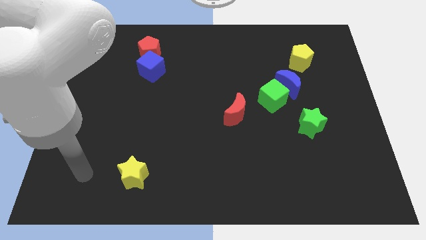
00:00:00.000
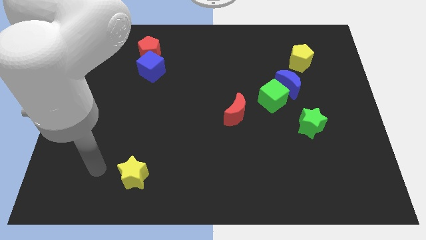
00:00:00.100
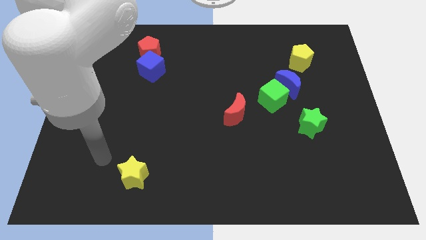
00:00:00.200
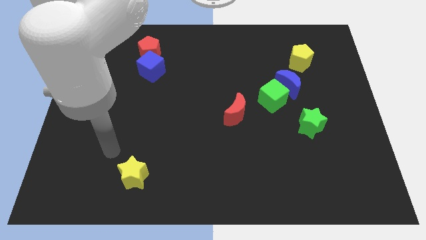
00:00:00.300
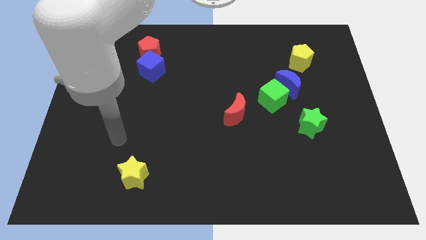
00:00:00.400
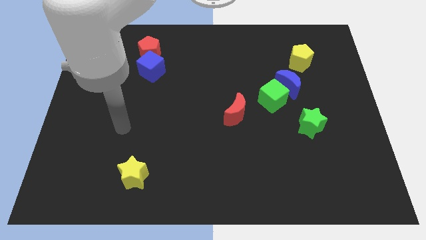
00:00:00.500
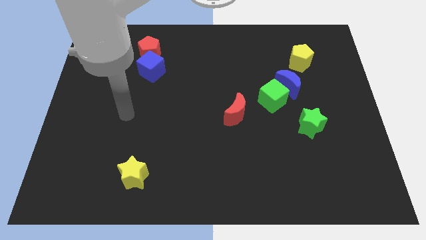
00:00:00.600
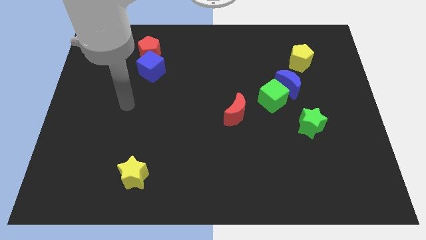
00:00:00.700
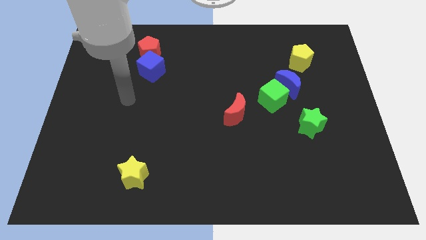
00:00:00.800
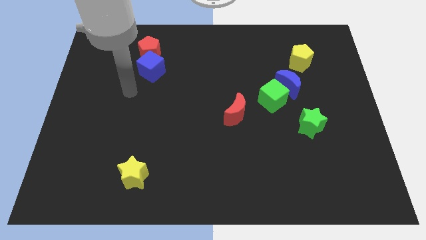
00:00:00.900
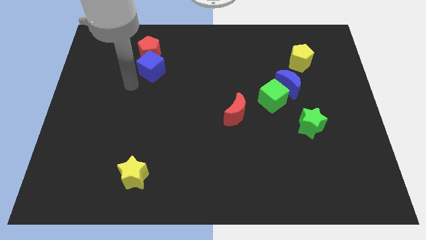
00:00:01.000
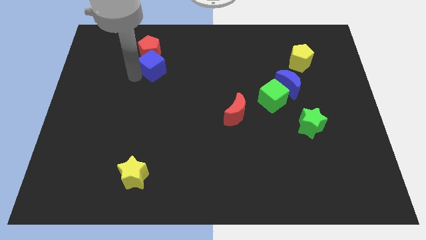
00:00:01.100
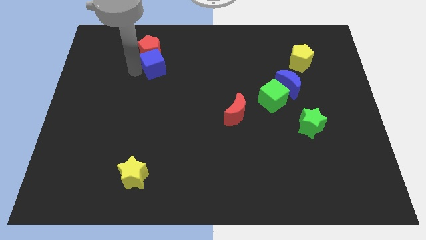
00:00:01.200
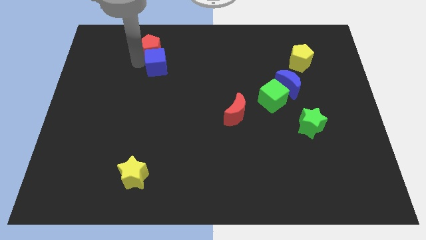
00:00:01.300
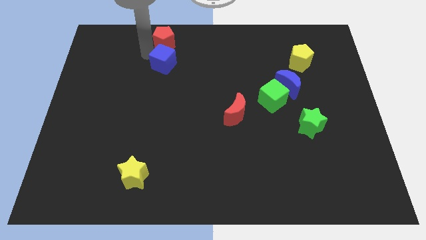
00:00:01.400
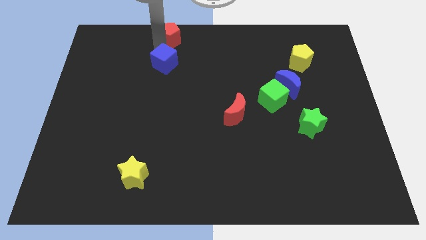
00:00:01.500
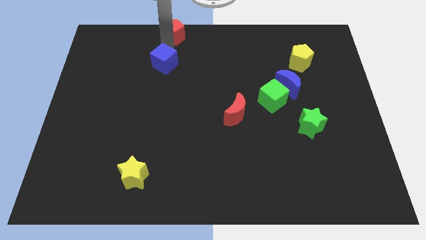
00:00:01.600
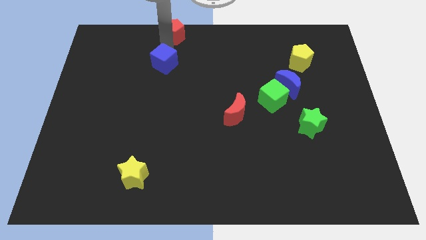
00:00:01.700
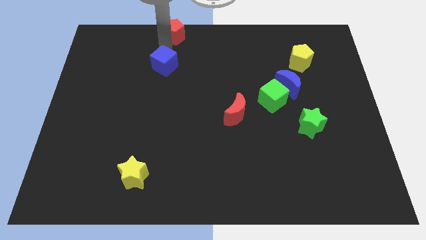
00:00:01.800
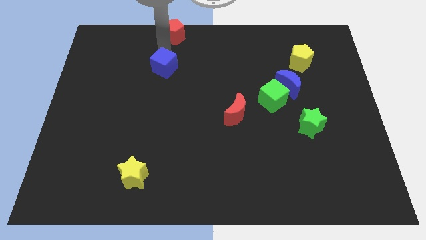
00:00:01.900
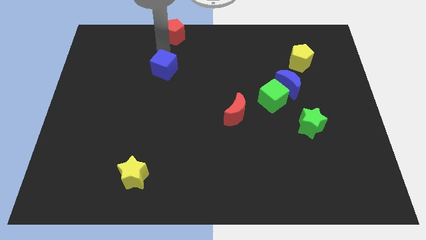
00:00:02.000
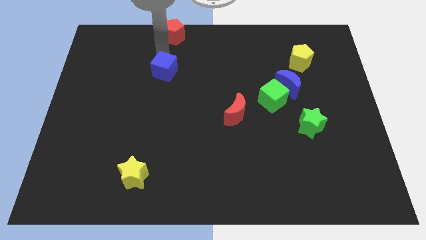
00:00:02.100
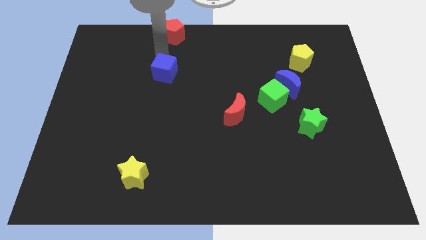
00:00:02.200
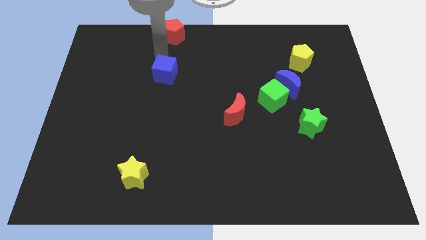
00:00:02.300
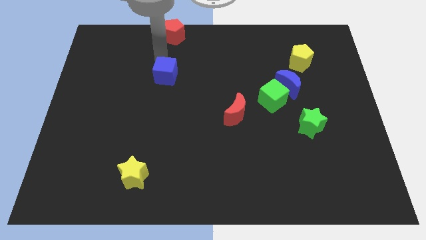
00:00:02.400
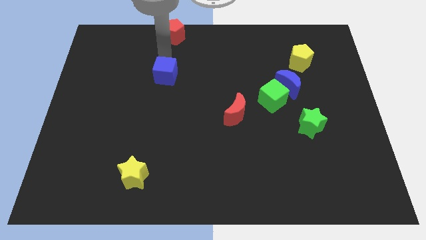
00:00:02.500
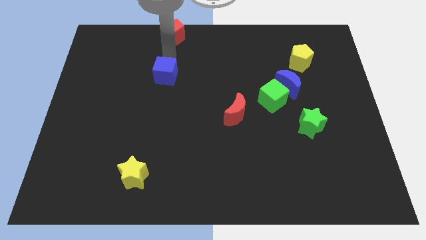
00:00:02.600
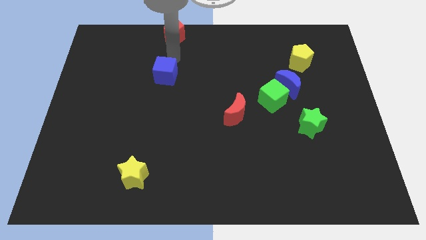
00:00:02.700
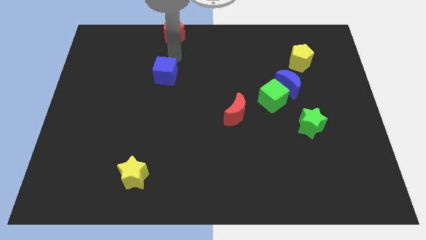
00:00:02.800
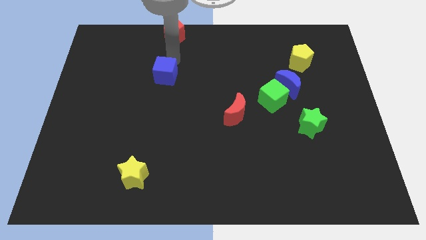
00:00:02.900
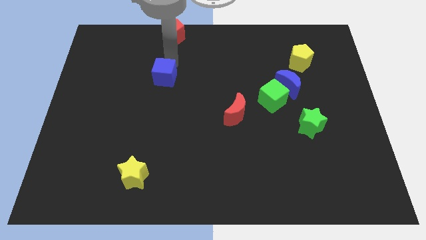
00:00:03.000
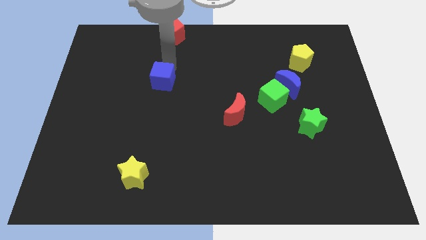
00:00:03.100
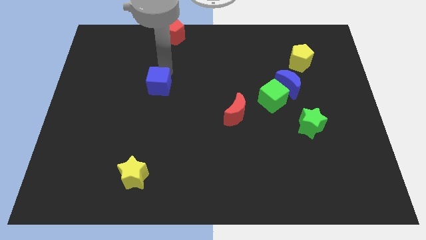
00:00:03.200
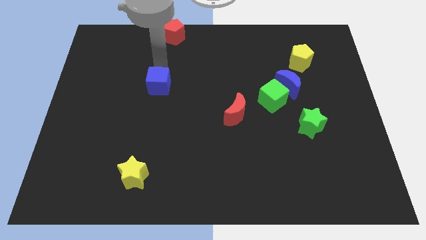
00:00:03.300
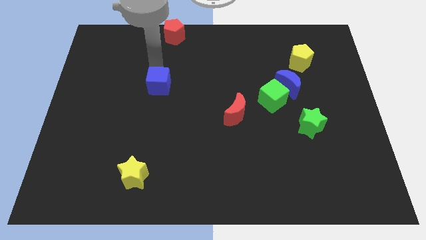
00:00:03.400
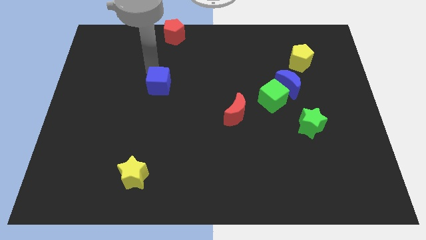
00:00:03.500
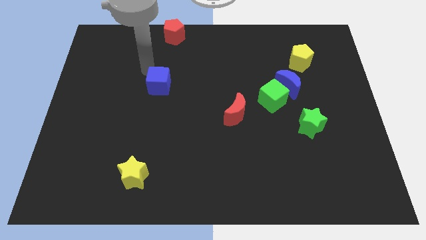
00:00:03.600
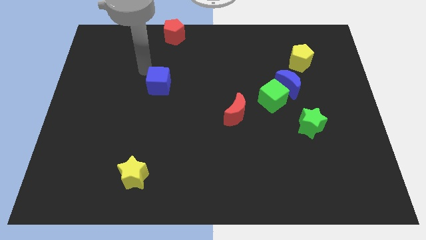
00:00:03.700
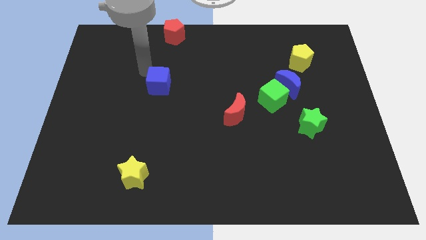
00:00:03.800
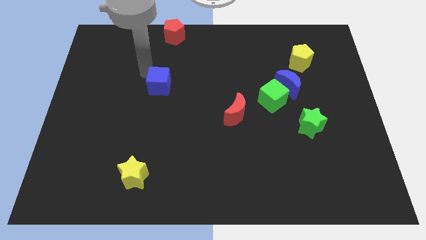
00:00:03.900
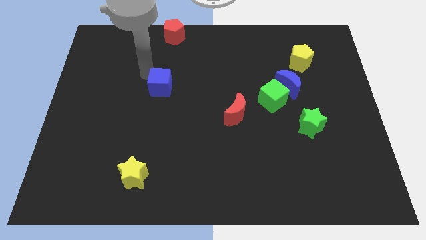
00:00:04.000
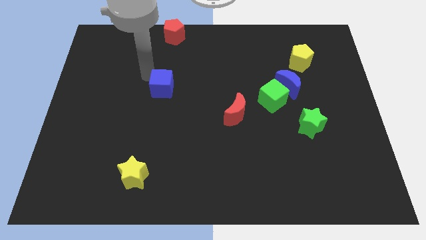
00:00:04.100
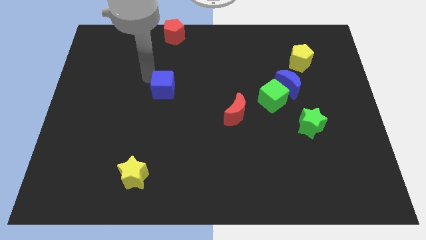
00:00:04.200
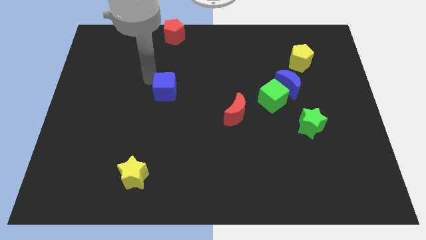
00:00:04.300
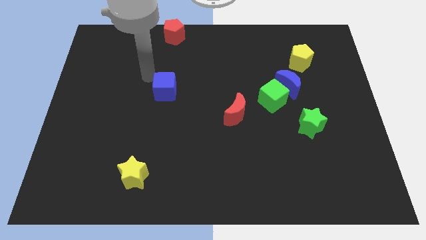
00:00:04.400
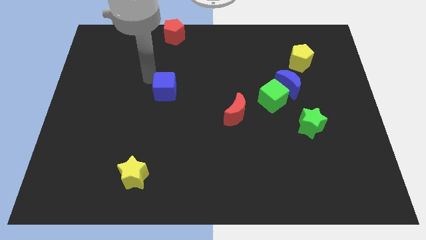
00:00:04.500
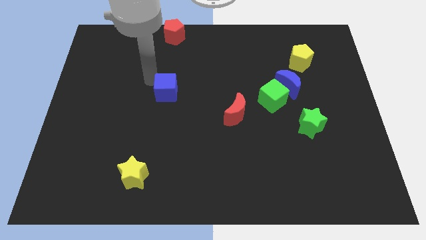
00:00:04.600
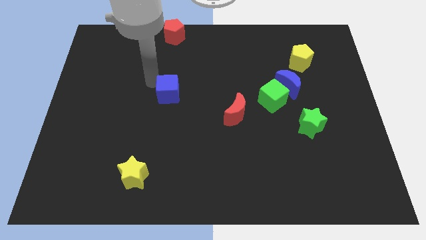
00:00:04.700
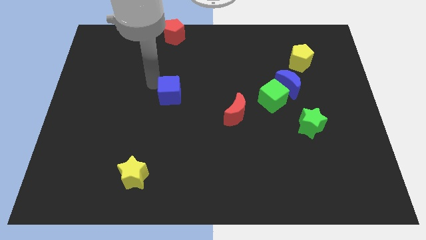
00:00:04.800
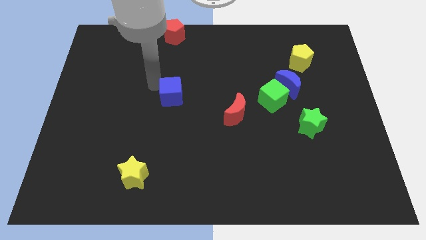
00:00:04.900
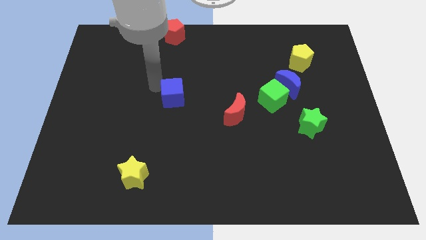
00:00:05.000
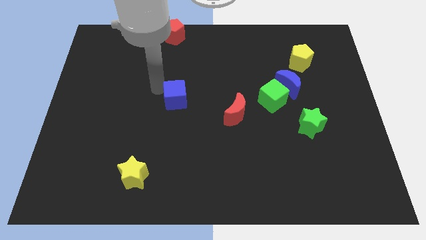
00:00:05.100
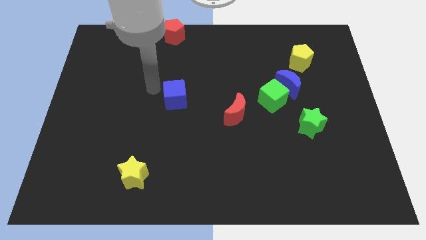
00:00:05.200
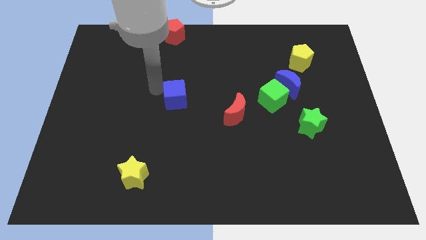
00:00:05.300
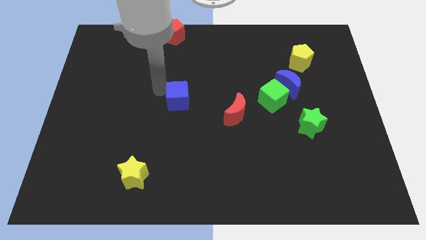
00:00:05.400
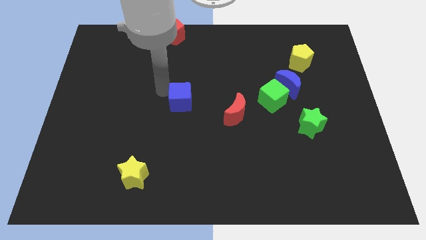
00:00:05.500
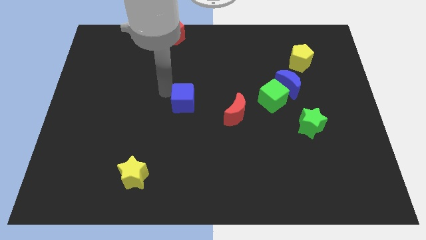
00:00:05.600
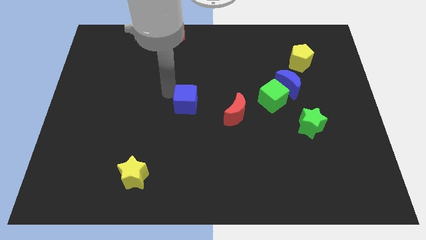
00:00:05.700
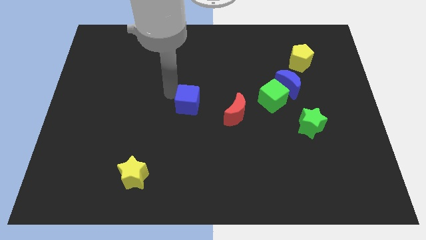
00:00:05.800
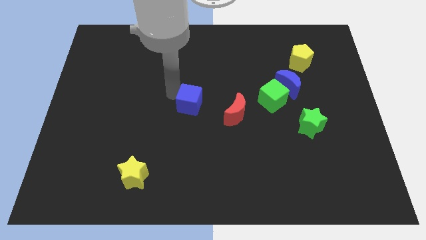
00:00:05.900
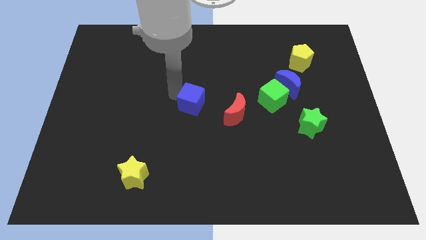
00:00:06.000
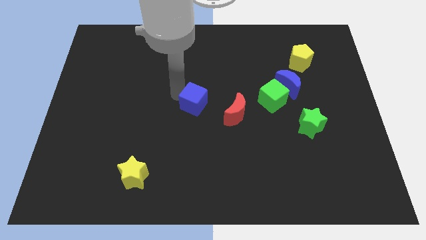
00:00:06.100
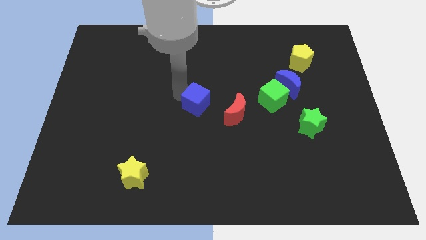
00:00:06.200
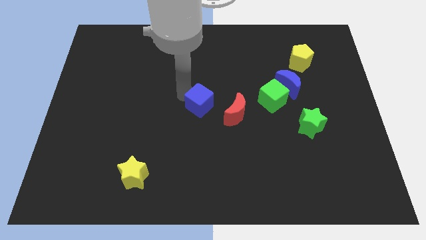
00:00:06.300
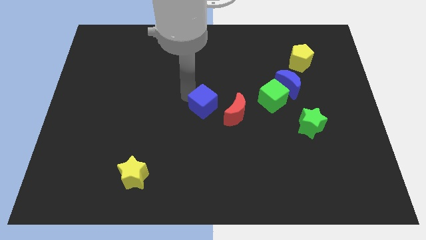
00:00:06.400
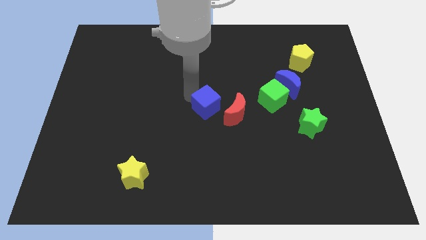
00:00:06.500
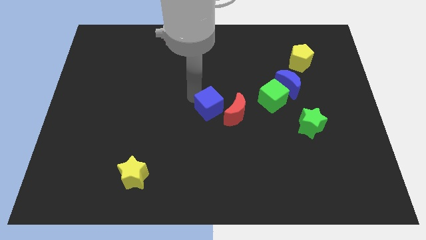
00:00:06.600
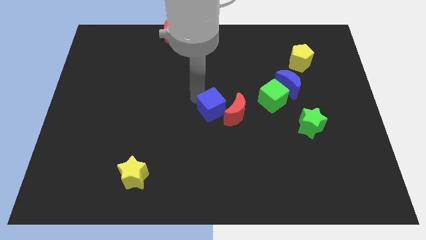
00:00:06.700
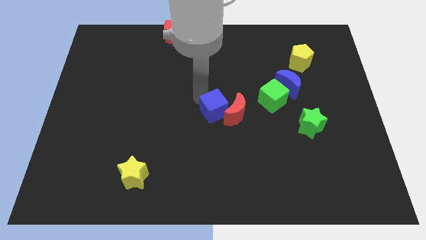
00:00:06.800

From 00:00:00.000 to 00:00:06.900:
slide the blue cube downwards and to the right diagonally

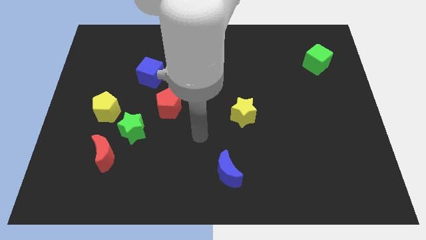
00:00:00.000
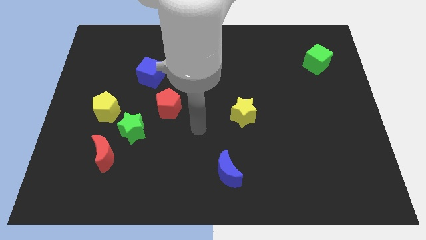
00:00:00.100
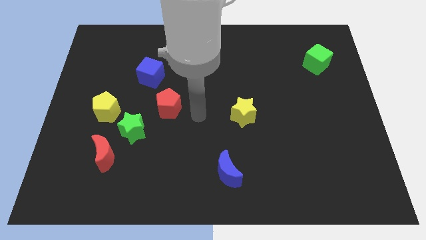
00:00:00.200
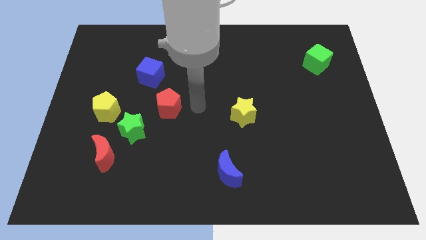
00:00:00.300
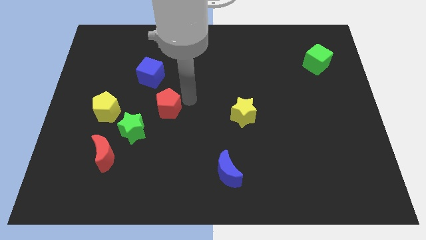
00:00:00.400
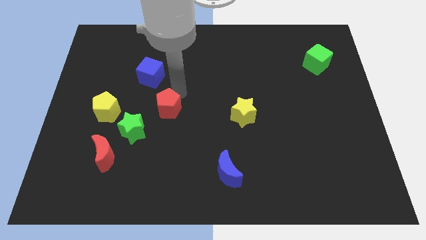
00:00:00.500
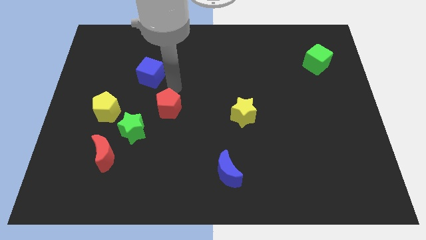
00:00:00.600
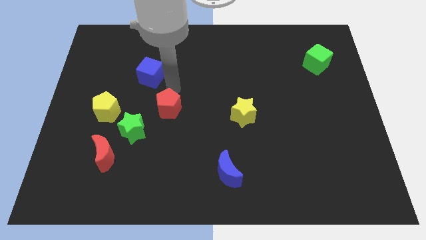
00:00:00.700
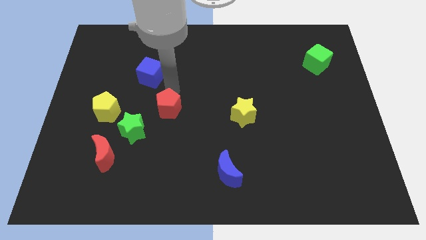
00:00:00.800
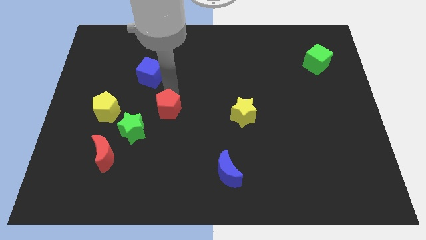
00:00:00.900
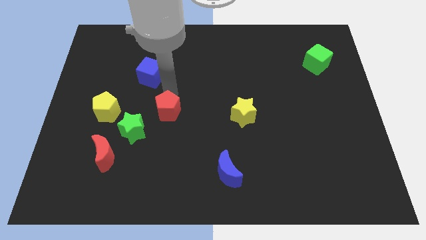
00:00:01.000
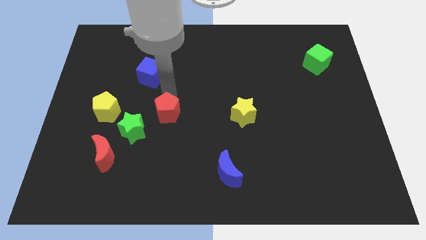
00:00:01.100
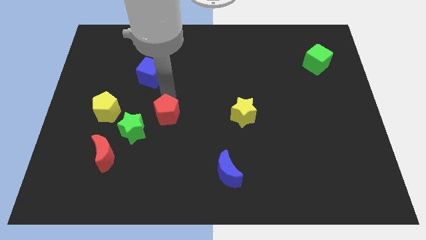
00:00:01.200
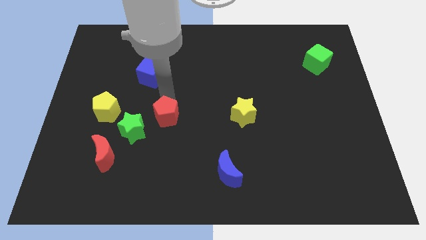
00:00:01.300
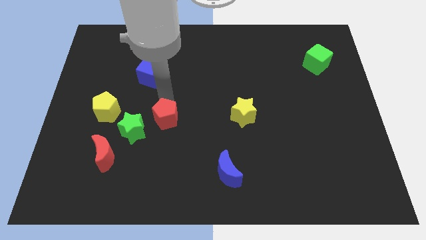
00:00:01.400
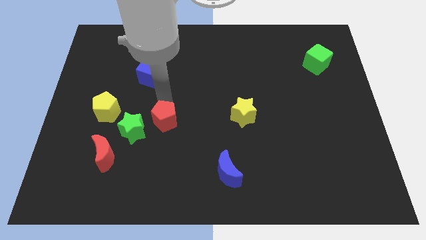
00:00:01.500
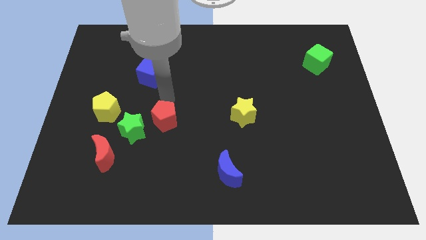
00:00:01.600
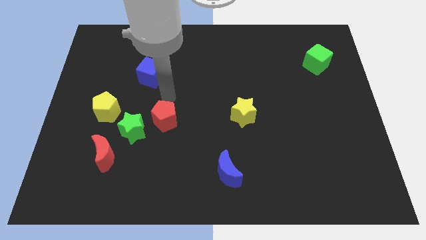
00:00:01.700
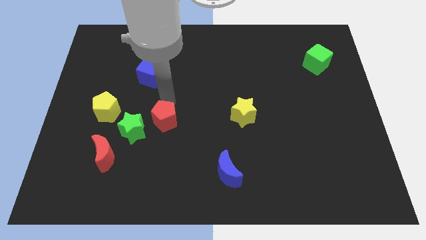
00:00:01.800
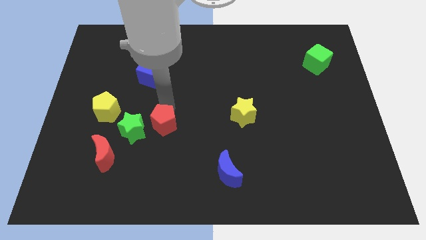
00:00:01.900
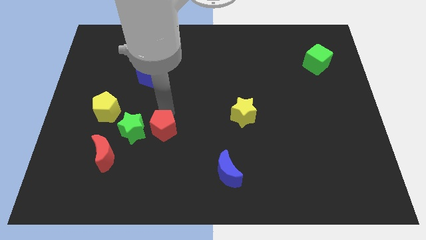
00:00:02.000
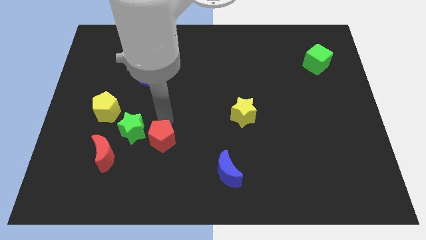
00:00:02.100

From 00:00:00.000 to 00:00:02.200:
move the red pentagon down somewhat
